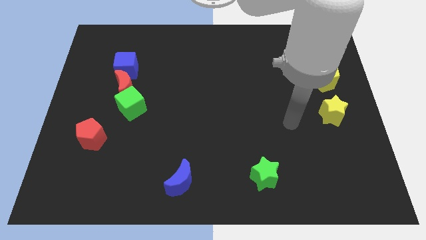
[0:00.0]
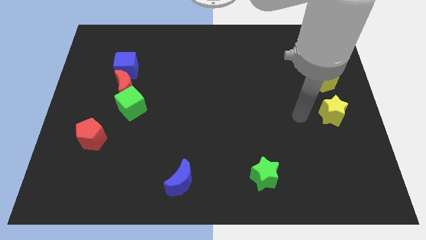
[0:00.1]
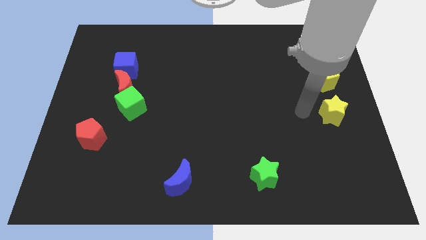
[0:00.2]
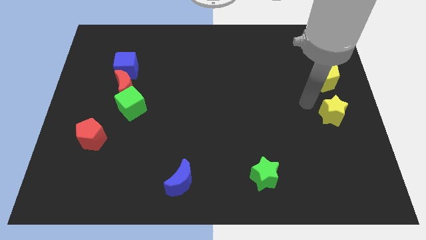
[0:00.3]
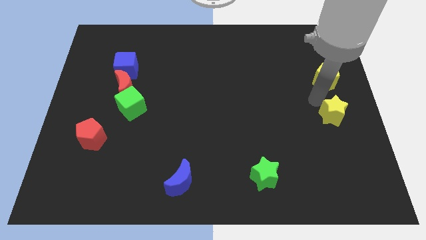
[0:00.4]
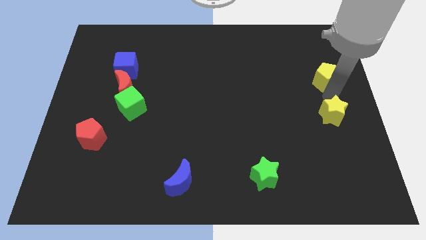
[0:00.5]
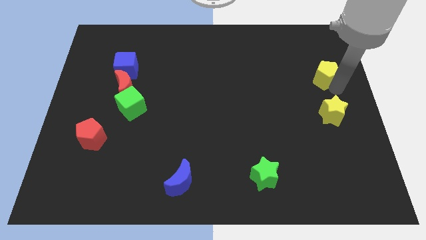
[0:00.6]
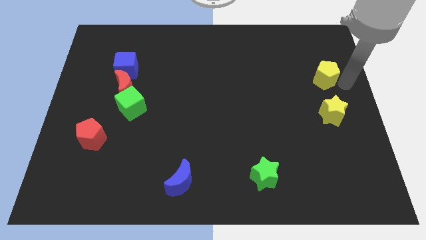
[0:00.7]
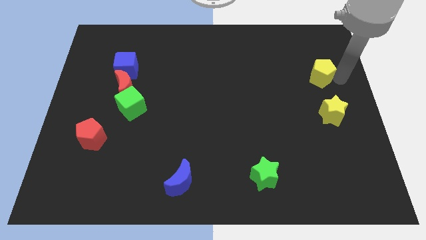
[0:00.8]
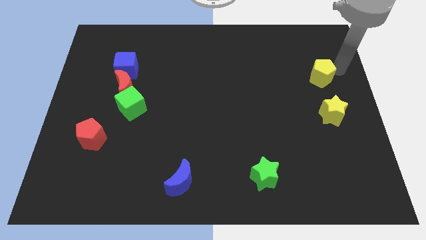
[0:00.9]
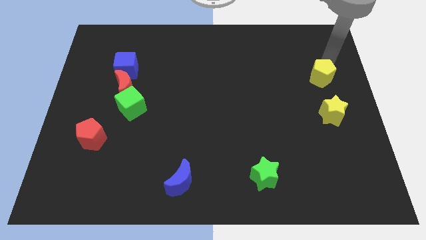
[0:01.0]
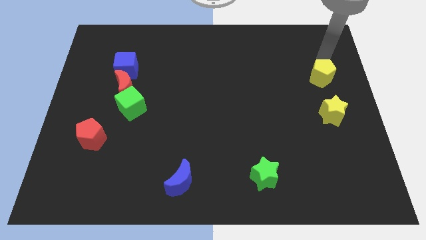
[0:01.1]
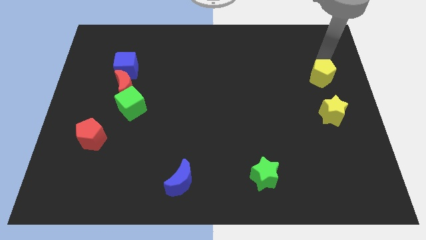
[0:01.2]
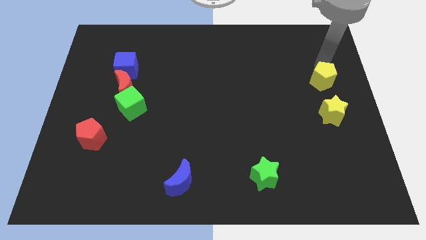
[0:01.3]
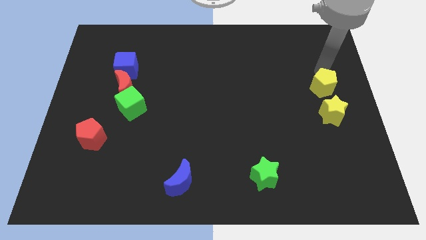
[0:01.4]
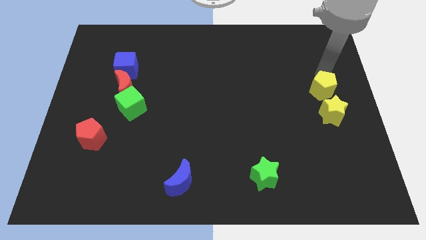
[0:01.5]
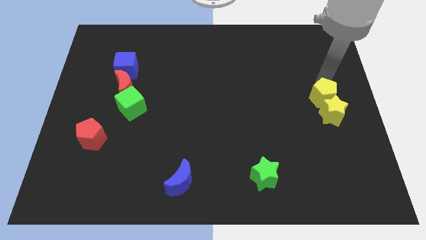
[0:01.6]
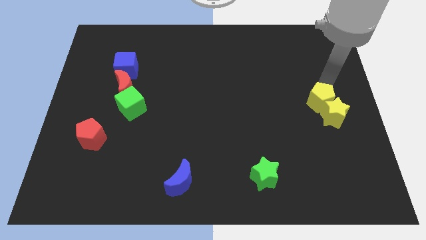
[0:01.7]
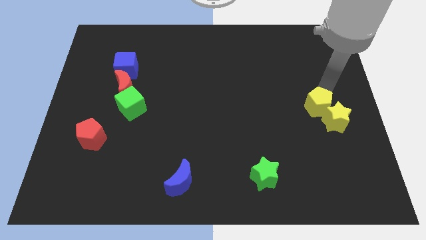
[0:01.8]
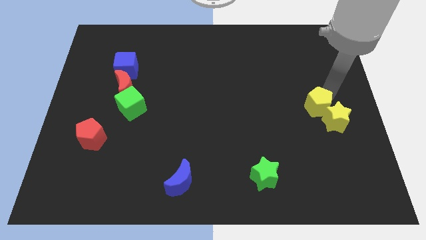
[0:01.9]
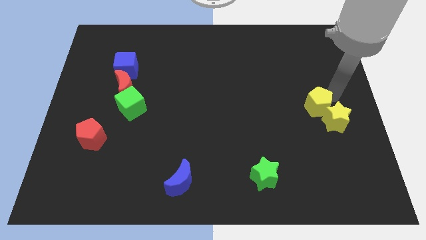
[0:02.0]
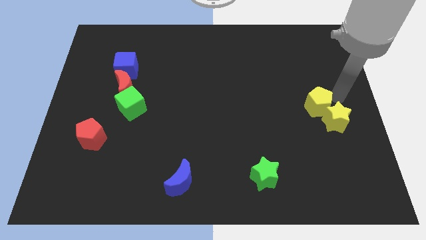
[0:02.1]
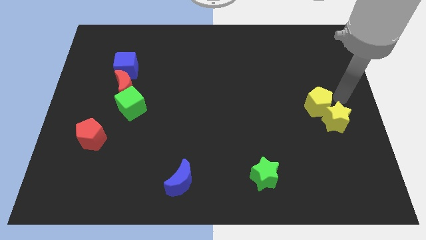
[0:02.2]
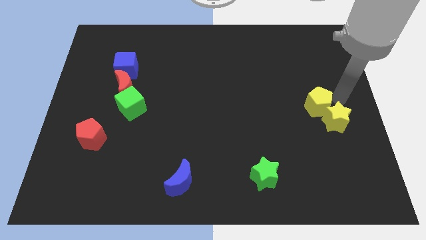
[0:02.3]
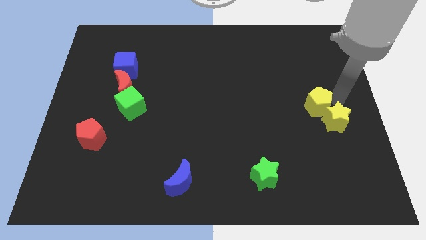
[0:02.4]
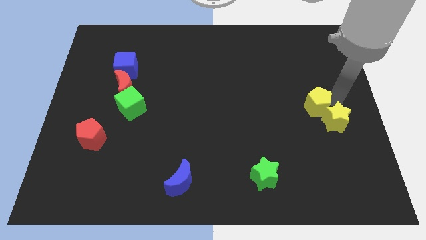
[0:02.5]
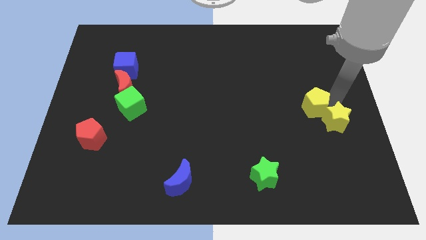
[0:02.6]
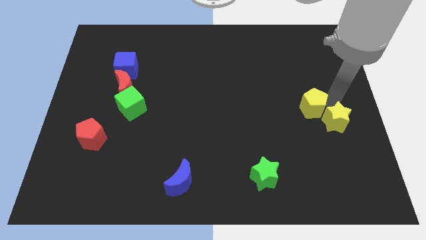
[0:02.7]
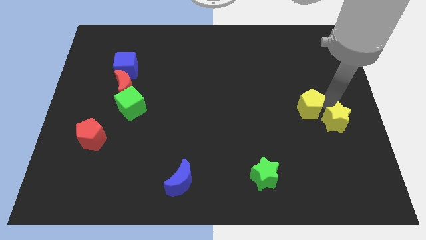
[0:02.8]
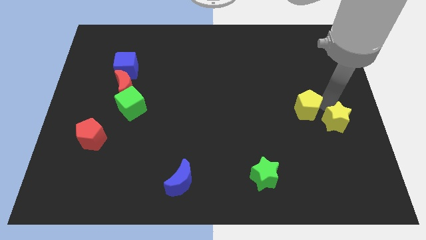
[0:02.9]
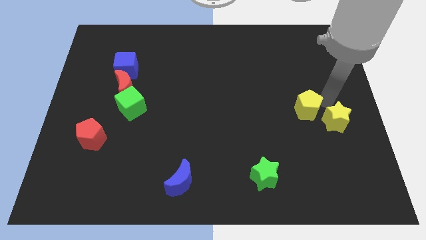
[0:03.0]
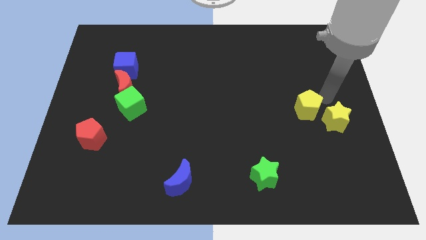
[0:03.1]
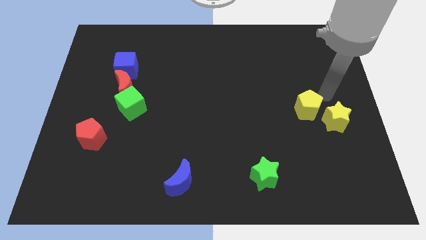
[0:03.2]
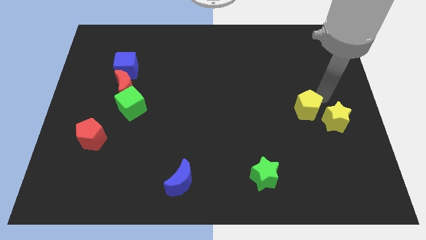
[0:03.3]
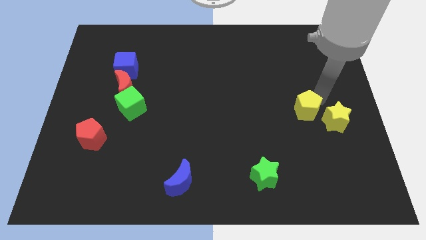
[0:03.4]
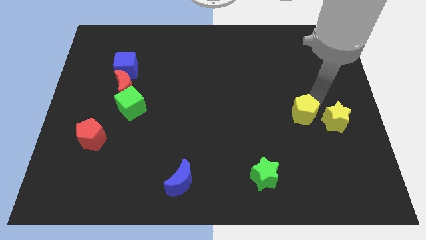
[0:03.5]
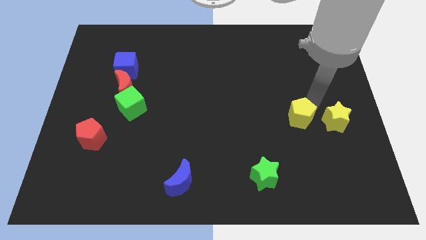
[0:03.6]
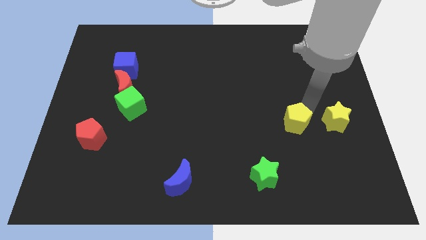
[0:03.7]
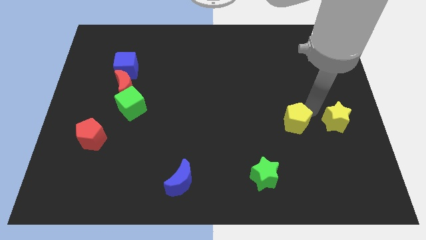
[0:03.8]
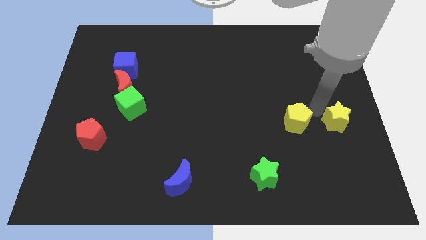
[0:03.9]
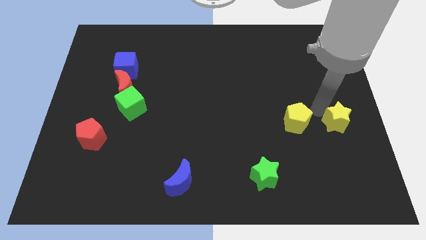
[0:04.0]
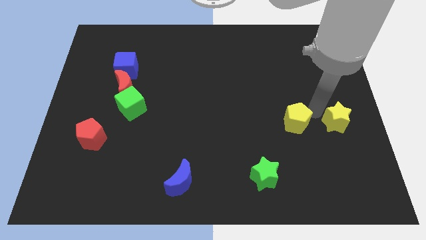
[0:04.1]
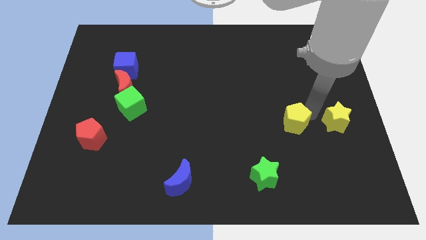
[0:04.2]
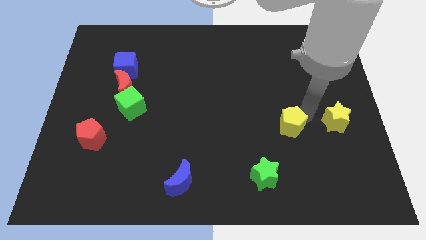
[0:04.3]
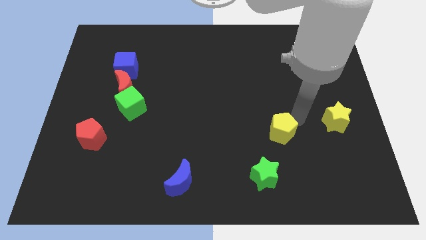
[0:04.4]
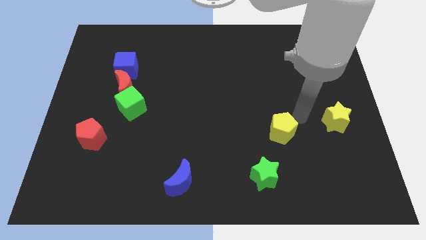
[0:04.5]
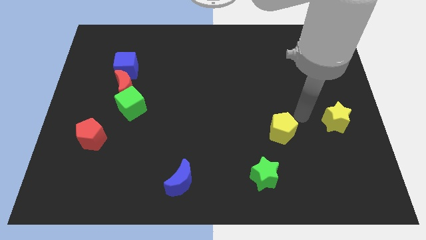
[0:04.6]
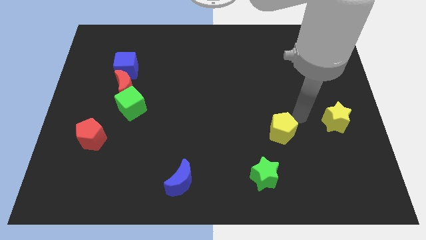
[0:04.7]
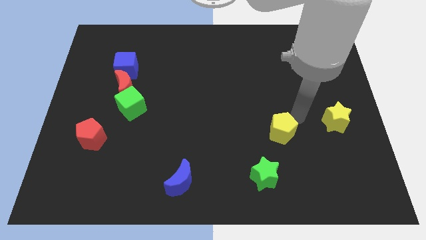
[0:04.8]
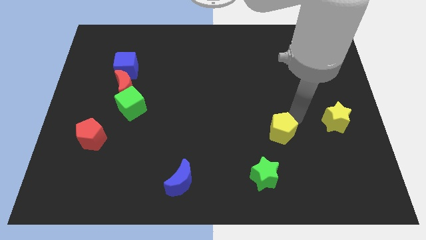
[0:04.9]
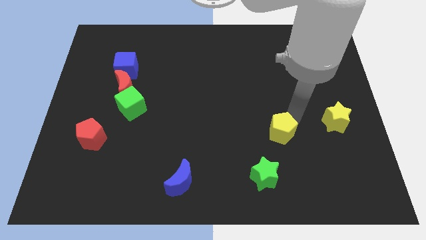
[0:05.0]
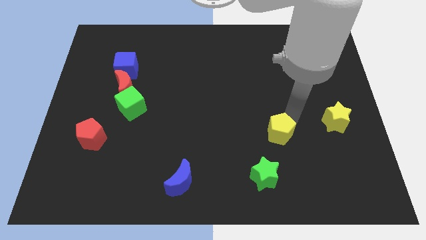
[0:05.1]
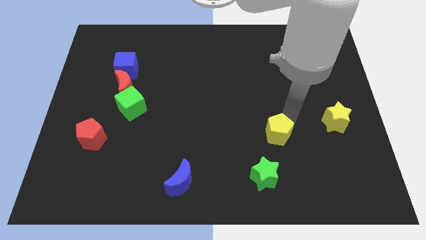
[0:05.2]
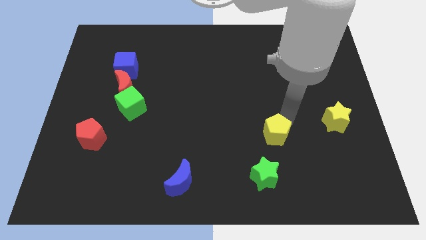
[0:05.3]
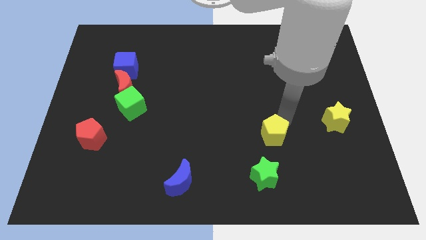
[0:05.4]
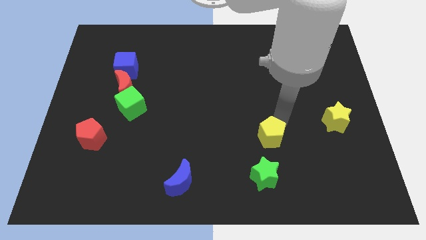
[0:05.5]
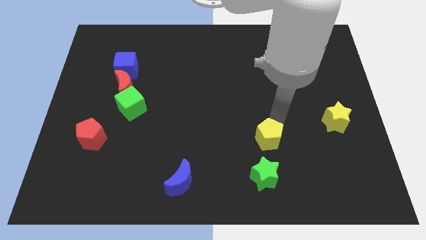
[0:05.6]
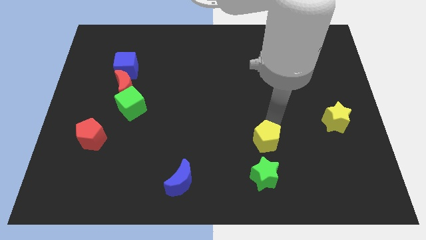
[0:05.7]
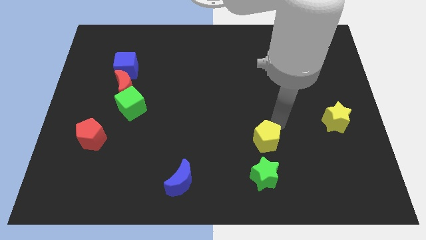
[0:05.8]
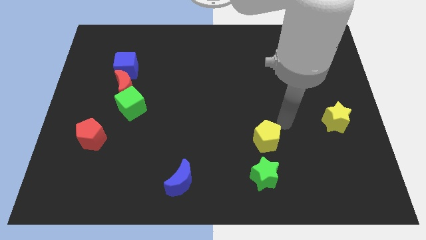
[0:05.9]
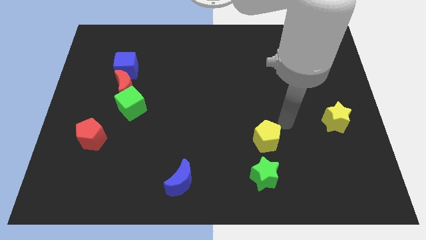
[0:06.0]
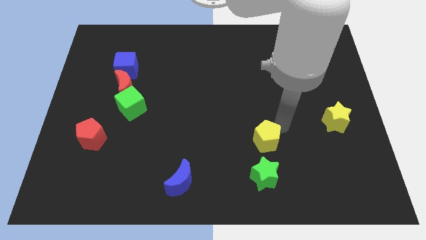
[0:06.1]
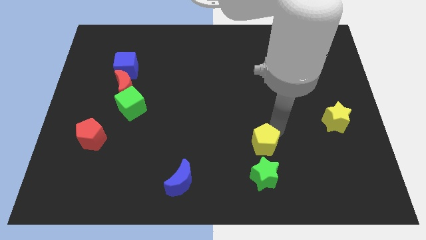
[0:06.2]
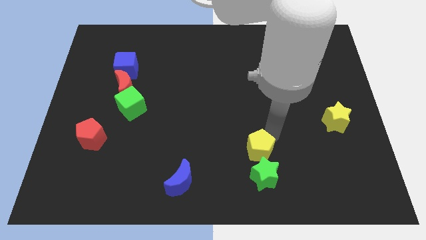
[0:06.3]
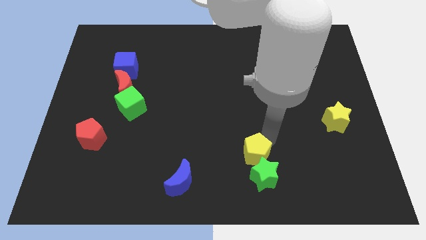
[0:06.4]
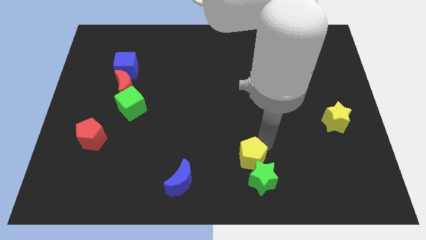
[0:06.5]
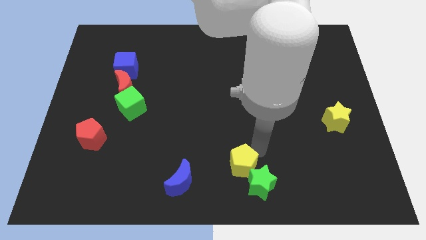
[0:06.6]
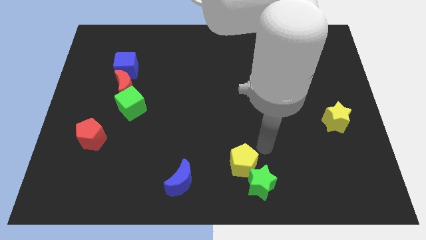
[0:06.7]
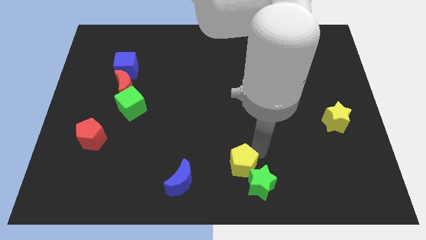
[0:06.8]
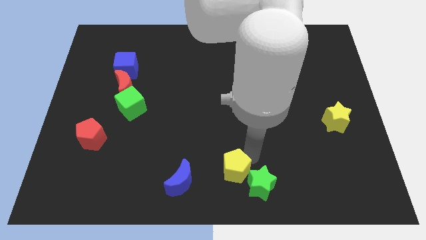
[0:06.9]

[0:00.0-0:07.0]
slide the yellow pentagon left of the green star
